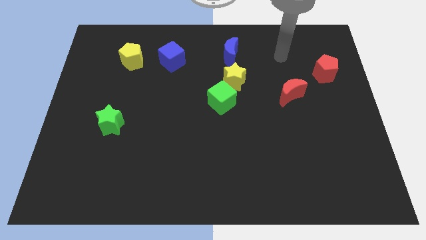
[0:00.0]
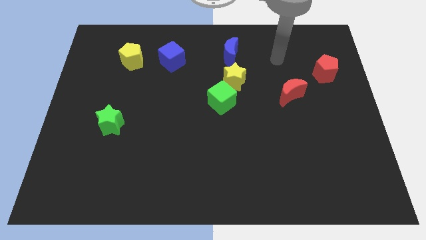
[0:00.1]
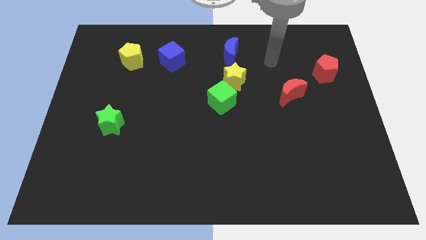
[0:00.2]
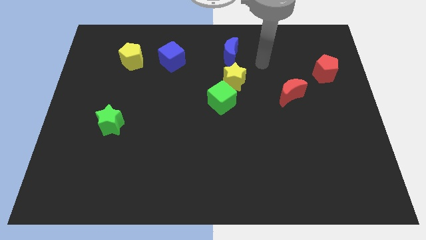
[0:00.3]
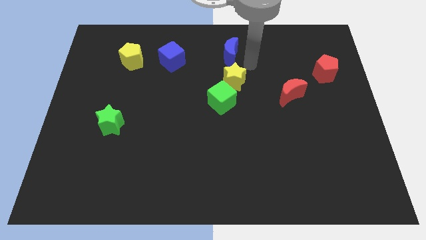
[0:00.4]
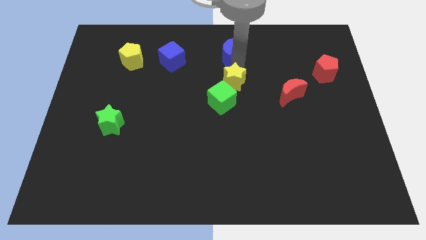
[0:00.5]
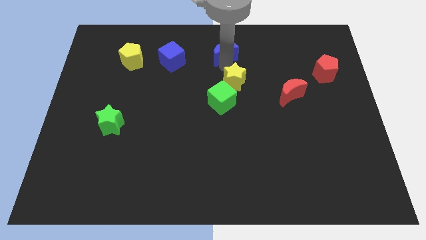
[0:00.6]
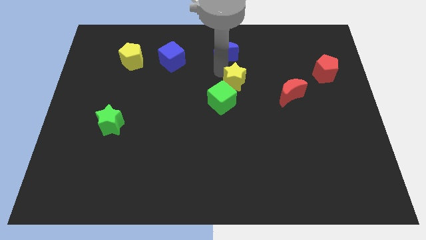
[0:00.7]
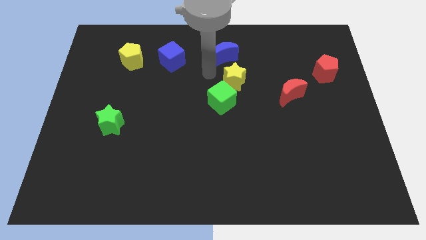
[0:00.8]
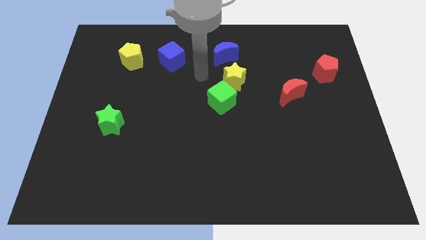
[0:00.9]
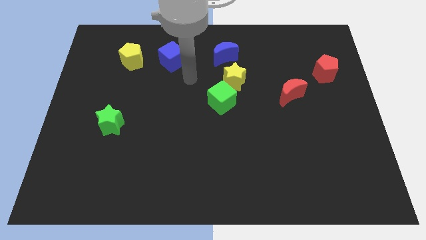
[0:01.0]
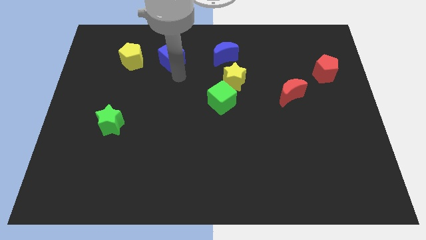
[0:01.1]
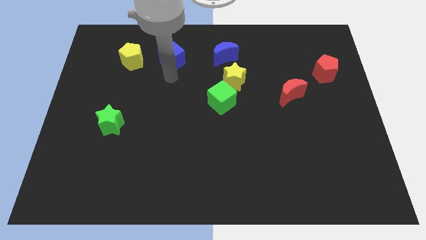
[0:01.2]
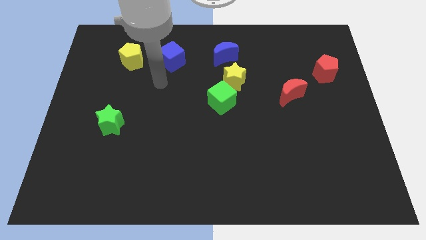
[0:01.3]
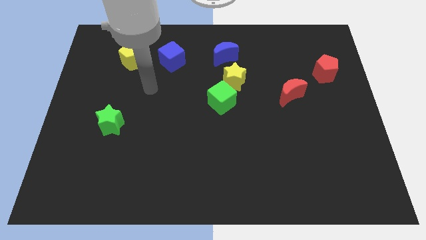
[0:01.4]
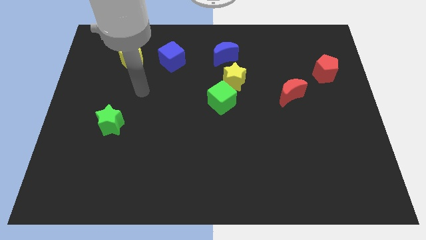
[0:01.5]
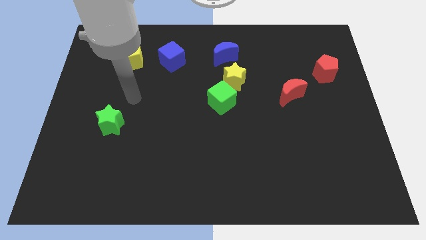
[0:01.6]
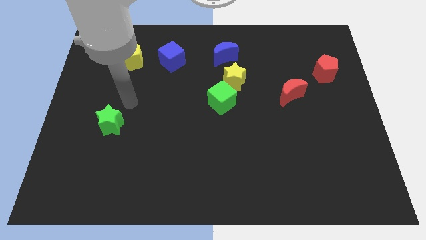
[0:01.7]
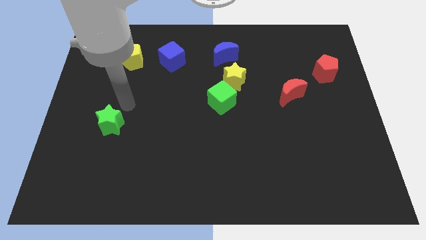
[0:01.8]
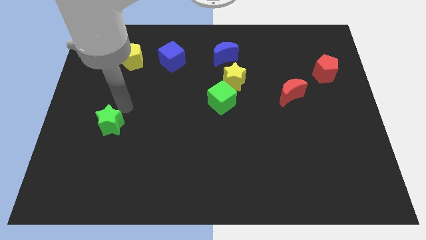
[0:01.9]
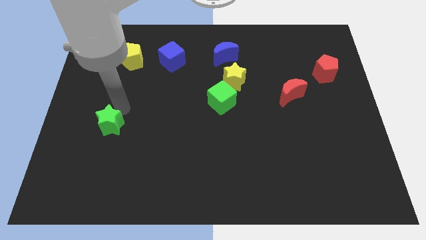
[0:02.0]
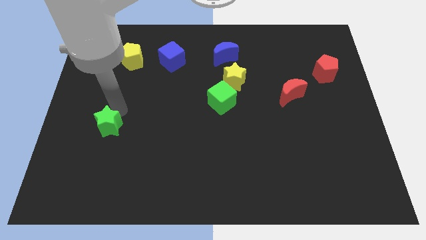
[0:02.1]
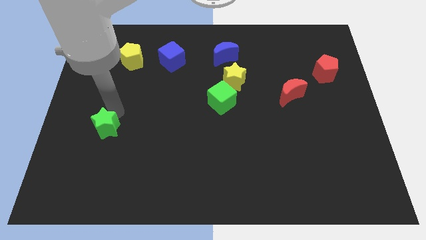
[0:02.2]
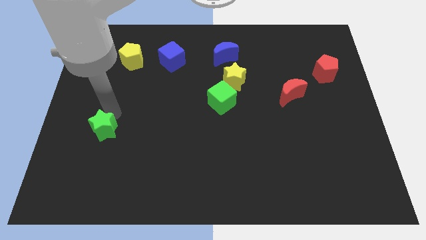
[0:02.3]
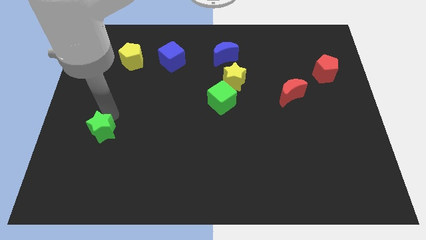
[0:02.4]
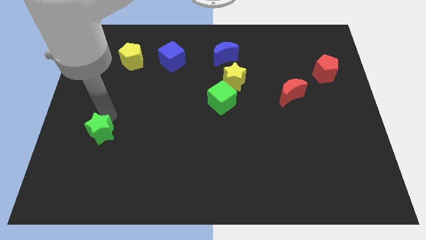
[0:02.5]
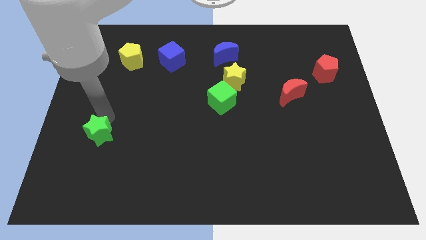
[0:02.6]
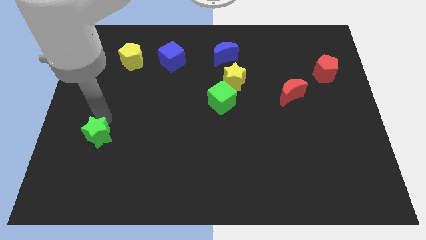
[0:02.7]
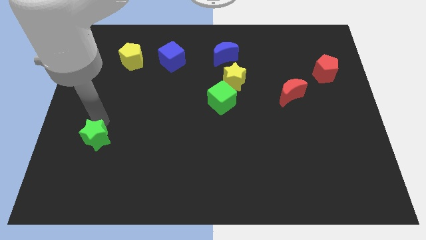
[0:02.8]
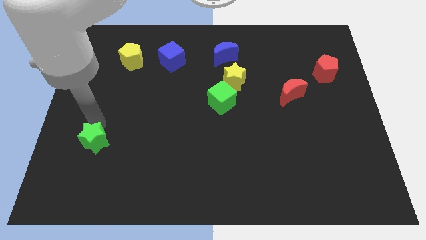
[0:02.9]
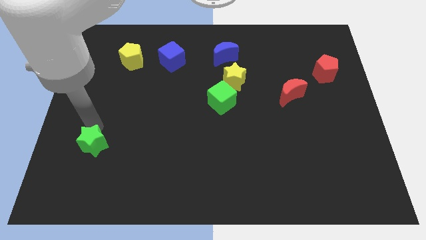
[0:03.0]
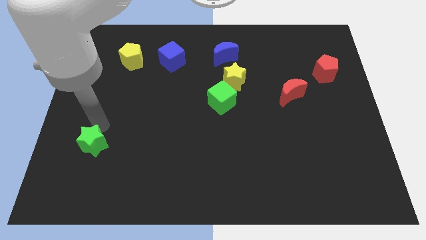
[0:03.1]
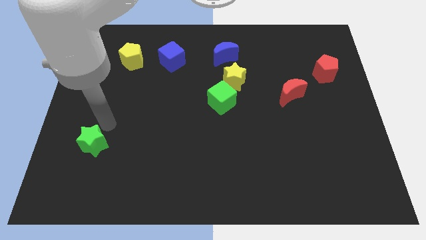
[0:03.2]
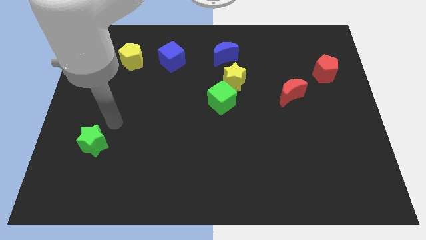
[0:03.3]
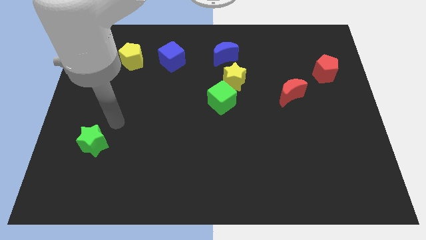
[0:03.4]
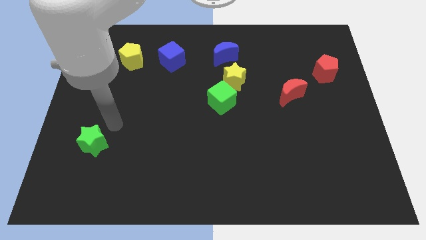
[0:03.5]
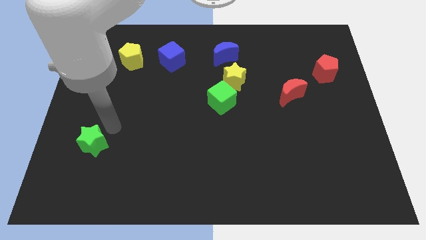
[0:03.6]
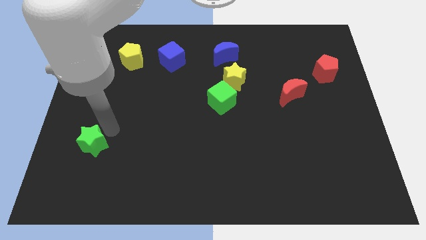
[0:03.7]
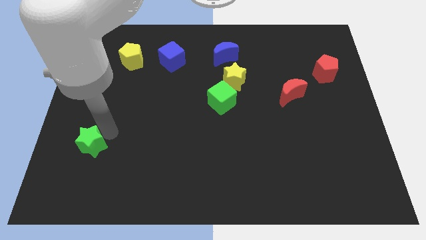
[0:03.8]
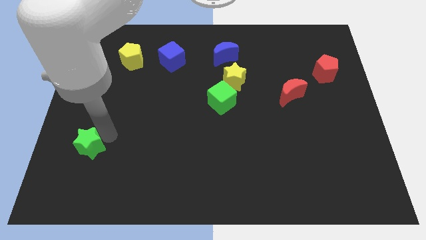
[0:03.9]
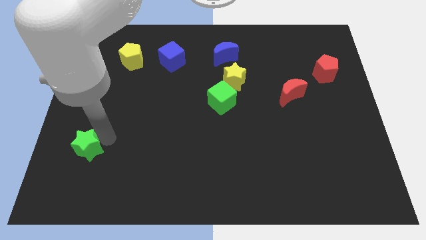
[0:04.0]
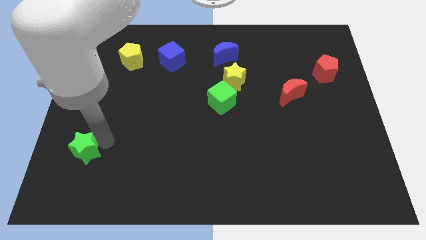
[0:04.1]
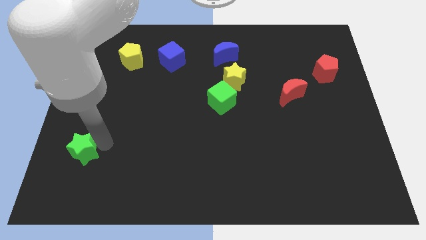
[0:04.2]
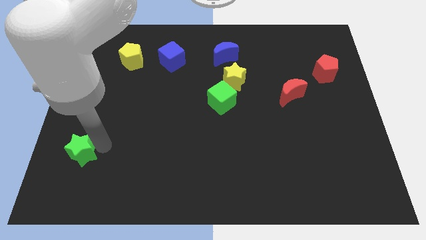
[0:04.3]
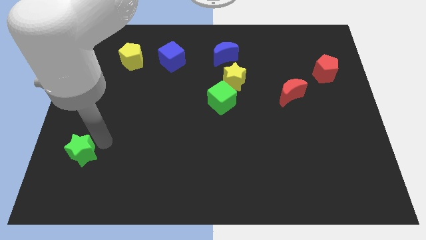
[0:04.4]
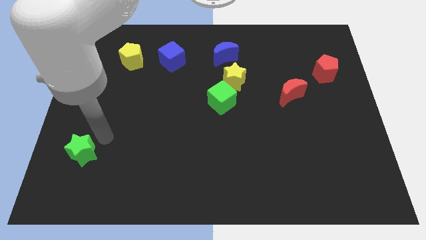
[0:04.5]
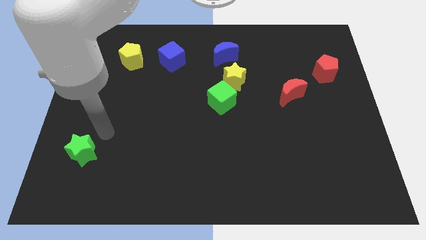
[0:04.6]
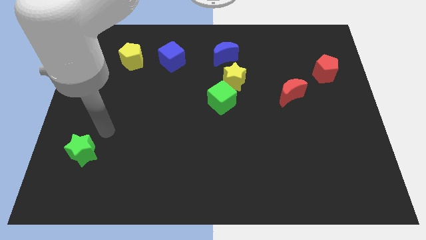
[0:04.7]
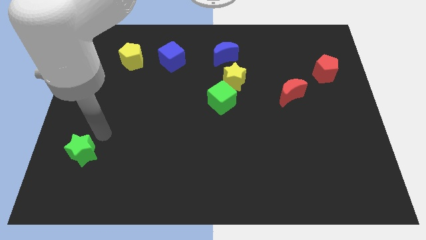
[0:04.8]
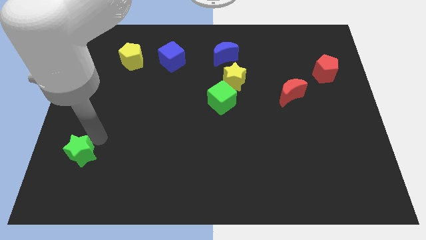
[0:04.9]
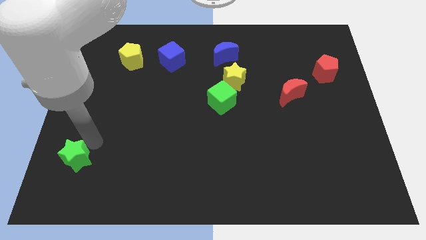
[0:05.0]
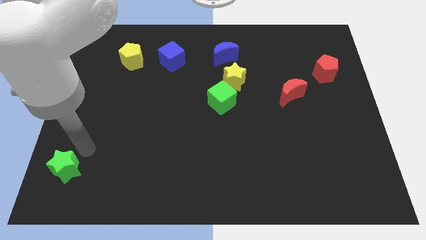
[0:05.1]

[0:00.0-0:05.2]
push the green star to the bottom left

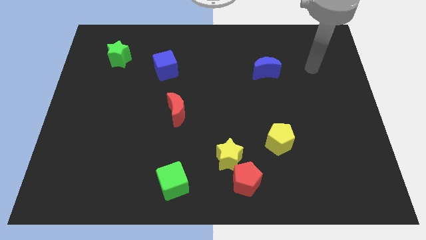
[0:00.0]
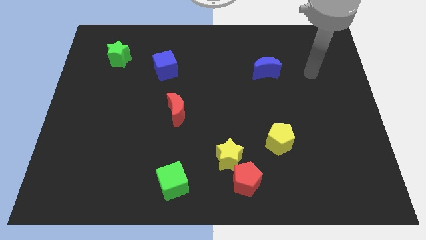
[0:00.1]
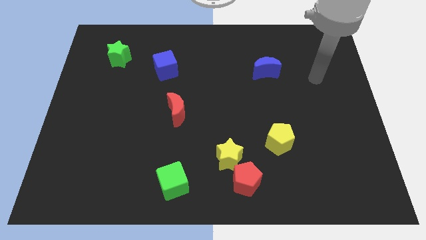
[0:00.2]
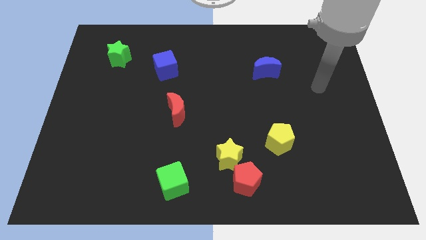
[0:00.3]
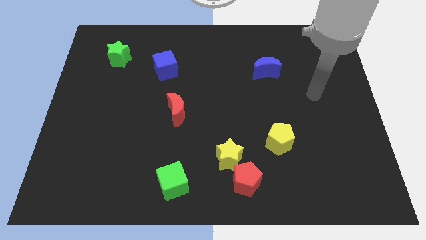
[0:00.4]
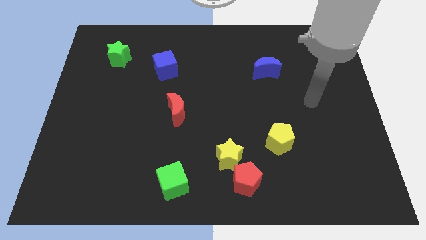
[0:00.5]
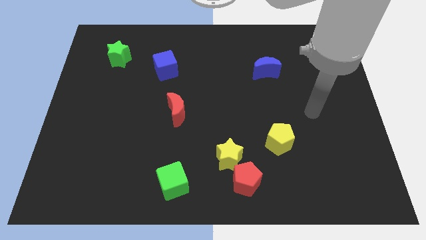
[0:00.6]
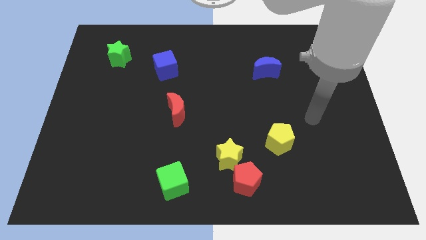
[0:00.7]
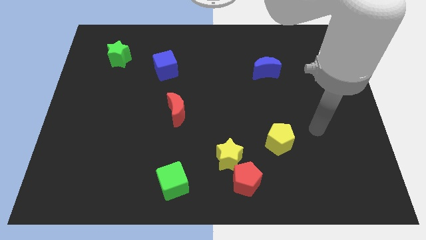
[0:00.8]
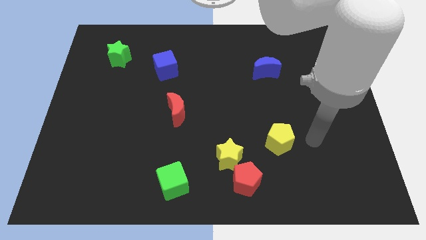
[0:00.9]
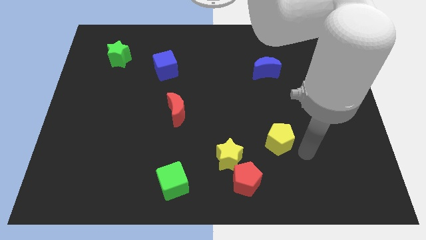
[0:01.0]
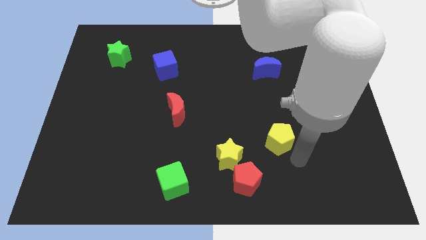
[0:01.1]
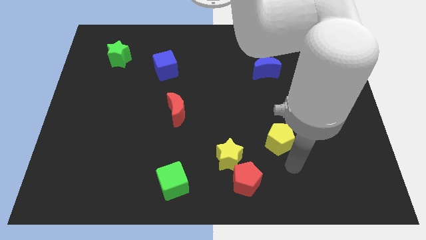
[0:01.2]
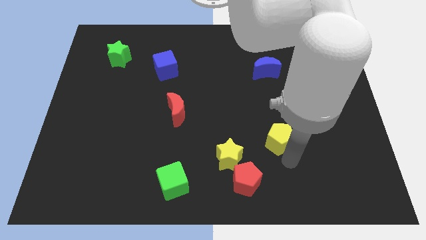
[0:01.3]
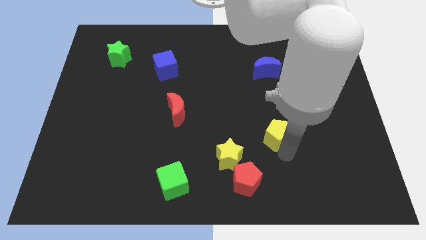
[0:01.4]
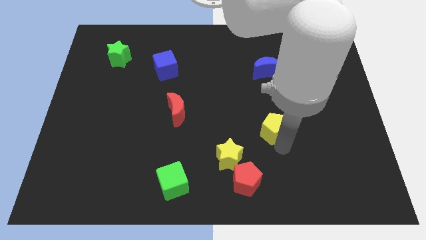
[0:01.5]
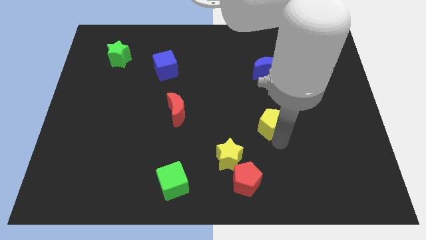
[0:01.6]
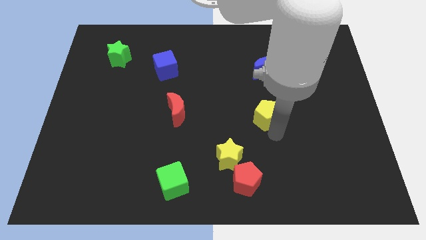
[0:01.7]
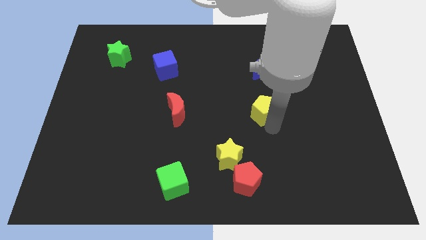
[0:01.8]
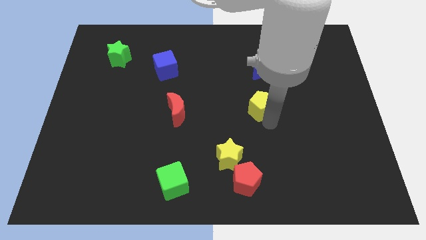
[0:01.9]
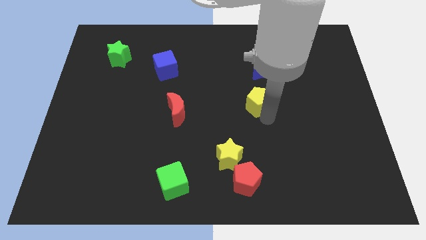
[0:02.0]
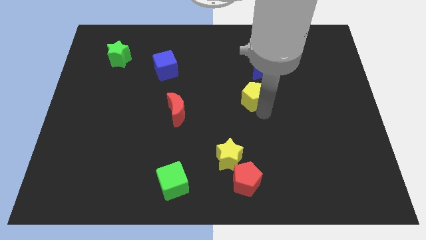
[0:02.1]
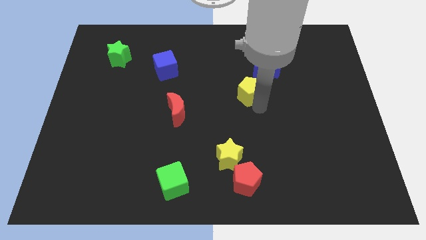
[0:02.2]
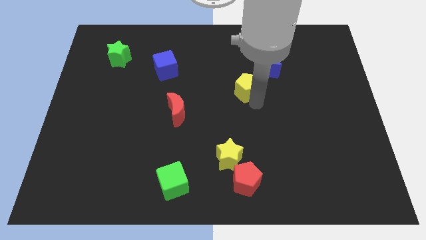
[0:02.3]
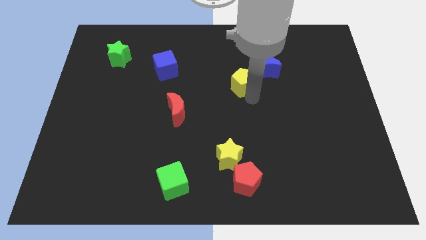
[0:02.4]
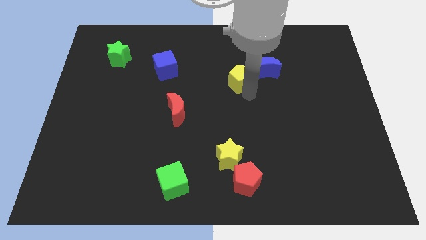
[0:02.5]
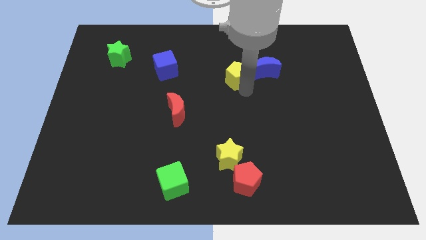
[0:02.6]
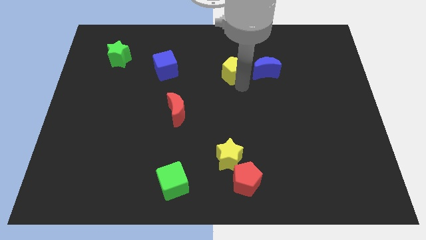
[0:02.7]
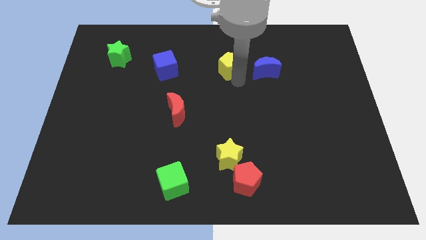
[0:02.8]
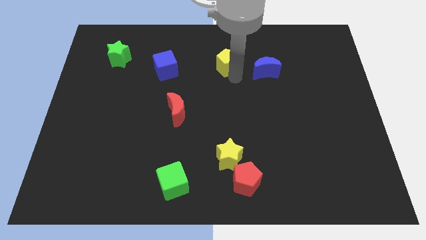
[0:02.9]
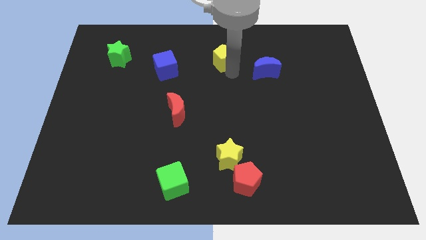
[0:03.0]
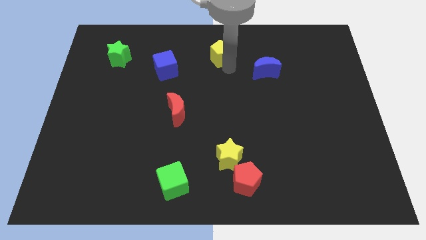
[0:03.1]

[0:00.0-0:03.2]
slide the yellow pentagon to the top side
